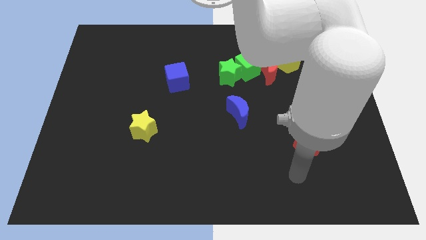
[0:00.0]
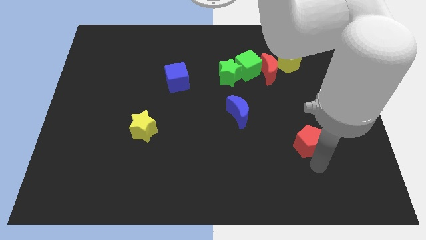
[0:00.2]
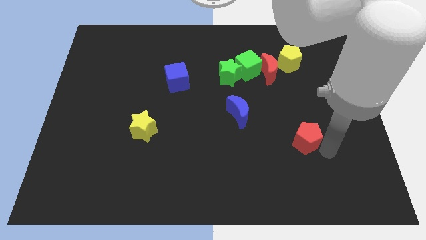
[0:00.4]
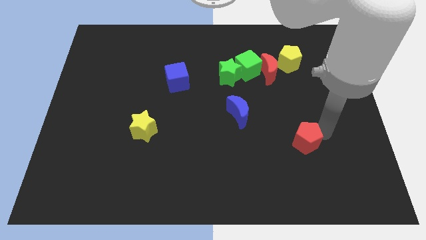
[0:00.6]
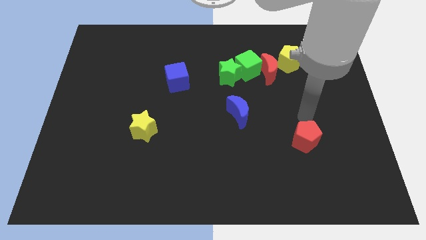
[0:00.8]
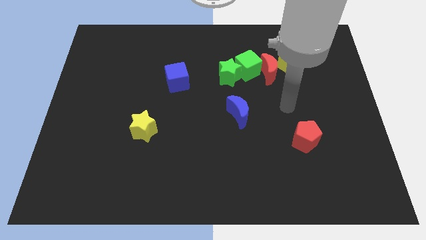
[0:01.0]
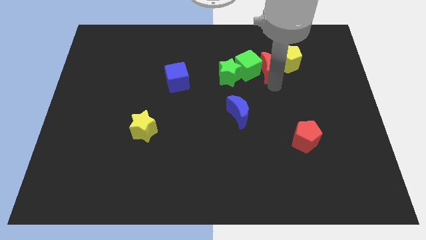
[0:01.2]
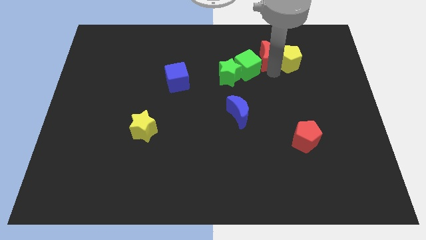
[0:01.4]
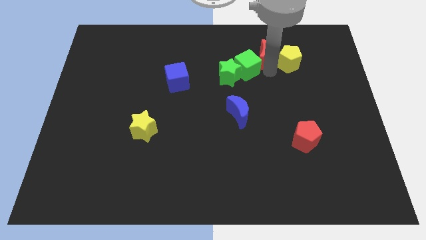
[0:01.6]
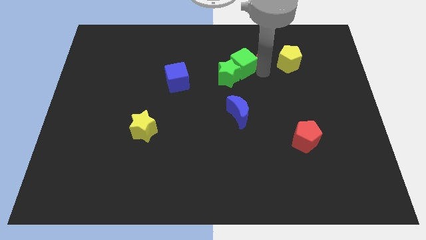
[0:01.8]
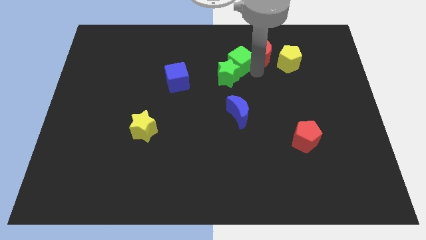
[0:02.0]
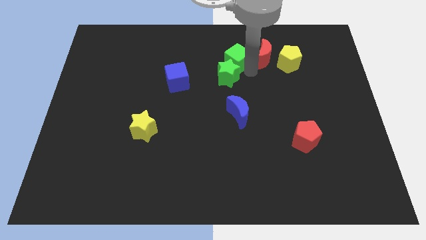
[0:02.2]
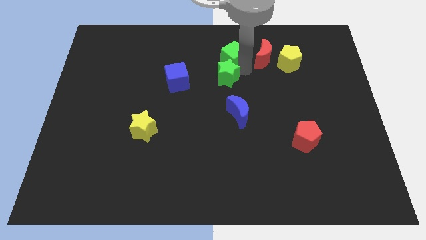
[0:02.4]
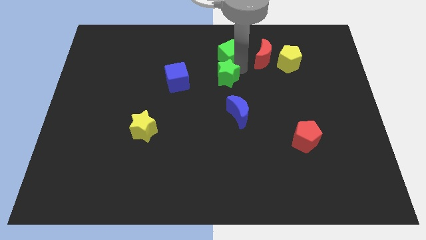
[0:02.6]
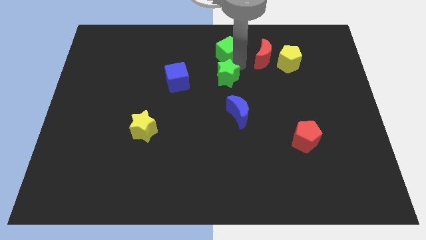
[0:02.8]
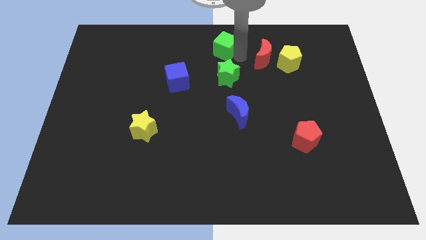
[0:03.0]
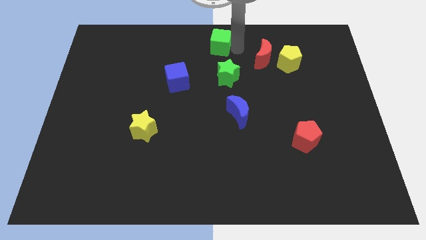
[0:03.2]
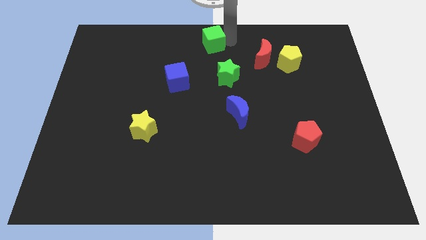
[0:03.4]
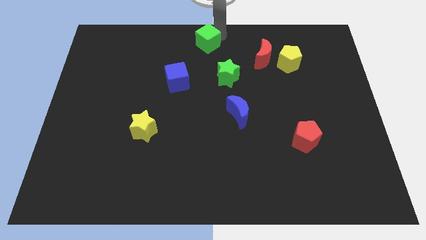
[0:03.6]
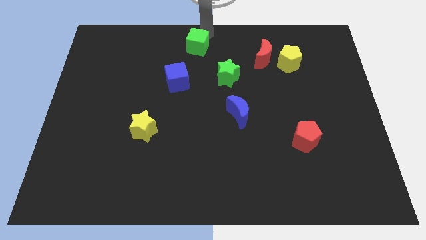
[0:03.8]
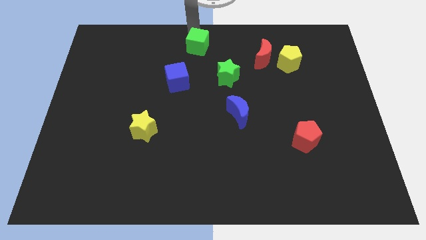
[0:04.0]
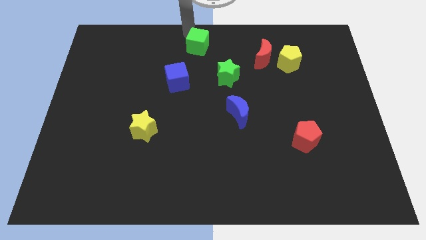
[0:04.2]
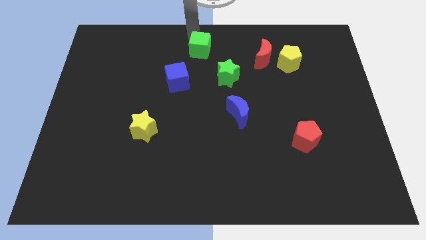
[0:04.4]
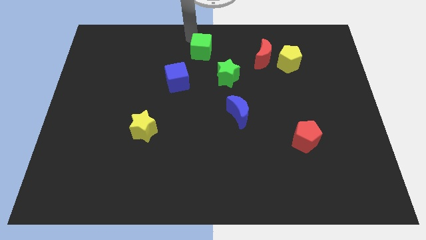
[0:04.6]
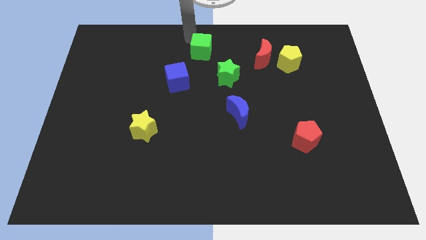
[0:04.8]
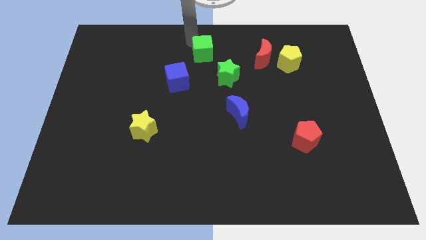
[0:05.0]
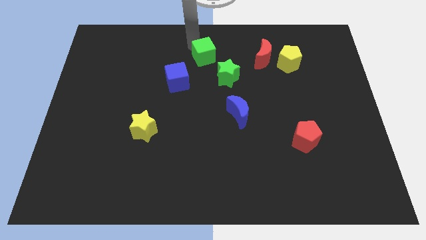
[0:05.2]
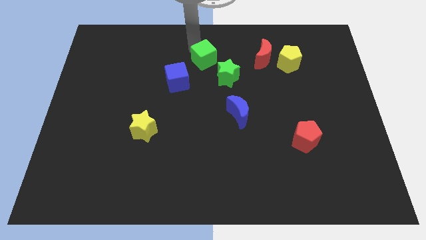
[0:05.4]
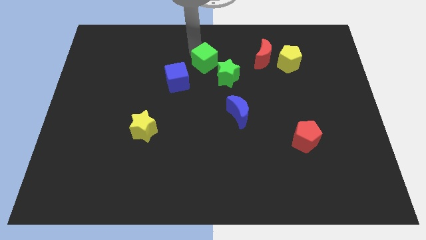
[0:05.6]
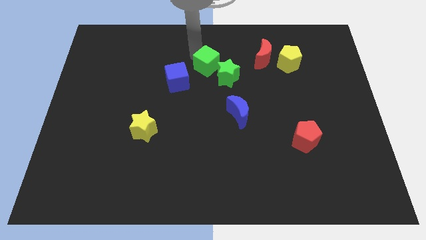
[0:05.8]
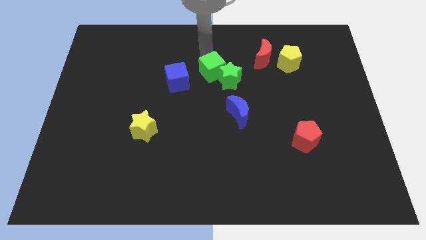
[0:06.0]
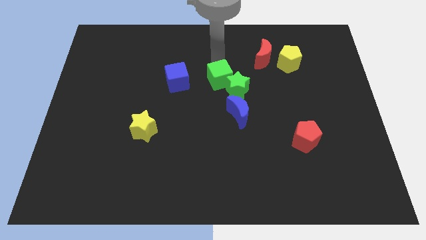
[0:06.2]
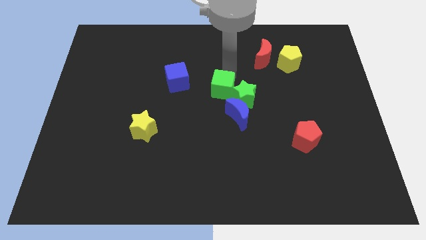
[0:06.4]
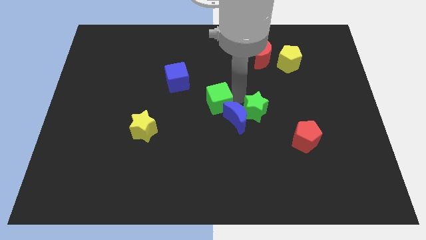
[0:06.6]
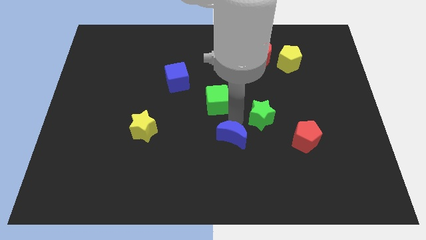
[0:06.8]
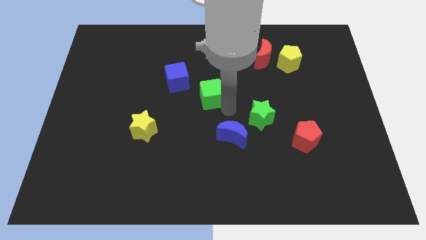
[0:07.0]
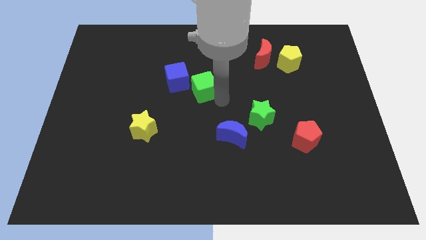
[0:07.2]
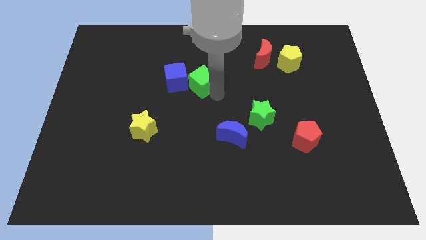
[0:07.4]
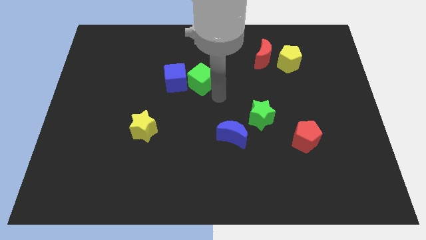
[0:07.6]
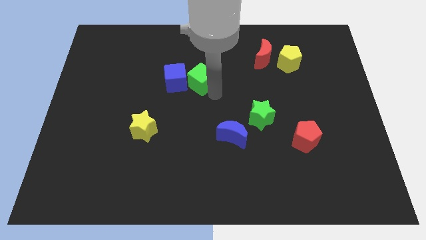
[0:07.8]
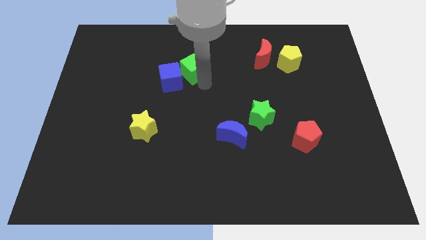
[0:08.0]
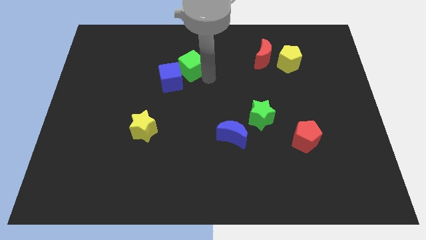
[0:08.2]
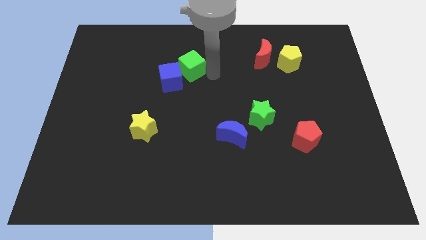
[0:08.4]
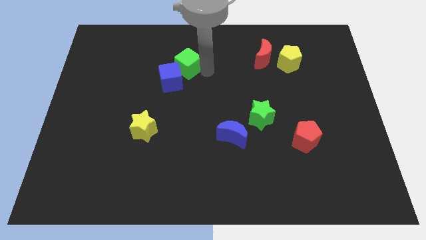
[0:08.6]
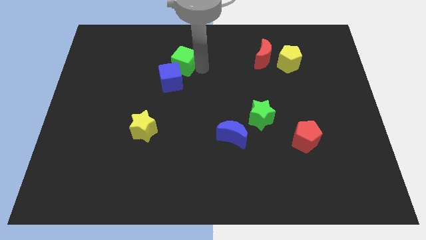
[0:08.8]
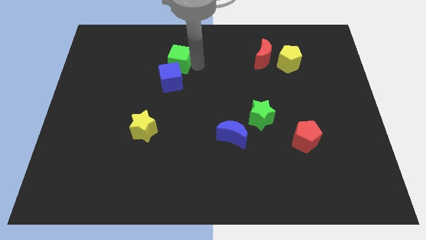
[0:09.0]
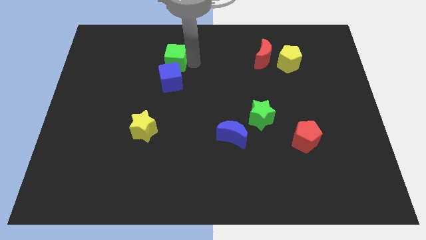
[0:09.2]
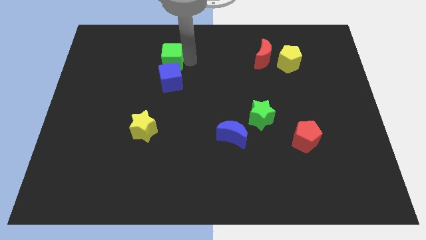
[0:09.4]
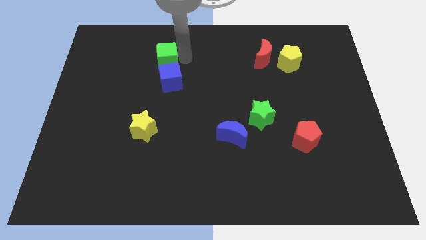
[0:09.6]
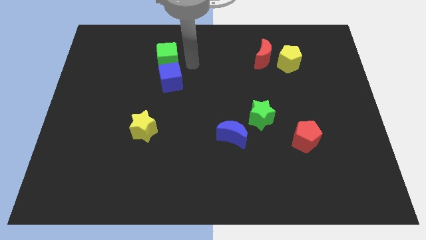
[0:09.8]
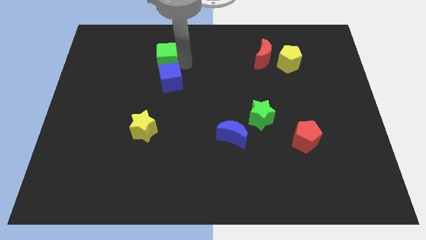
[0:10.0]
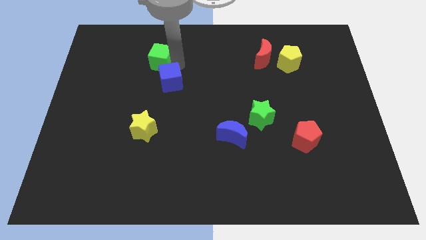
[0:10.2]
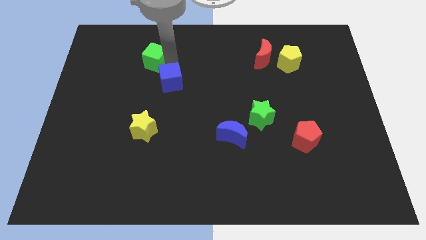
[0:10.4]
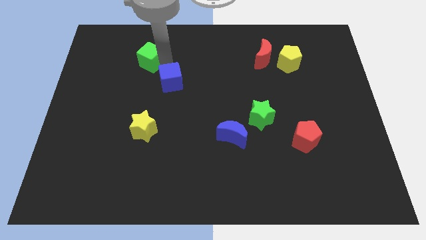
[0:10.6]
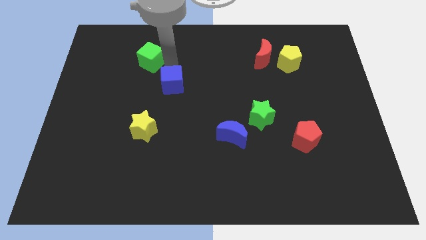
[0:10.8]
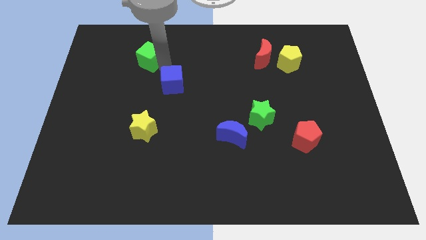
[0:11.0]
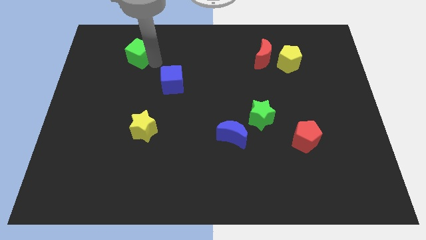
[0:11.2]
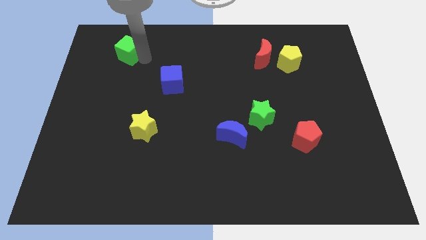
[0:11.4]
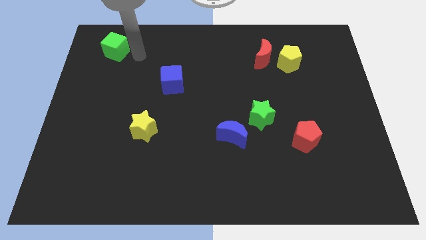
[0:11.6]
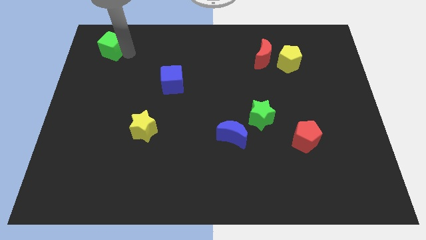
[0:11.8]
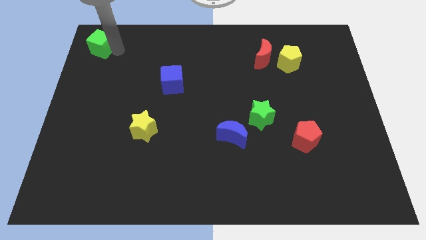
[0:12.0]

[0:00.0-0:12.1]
push the green cube to the upper left corner

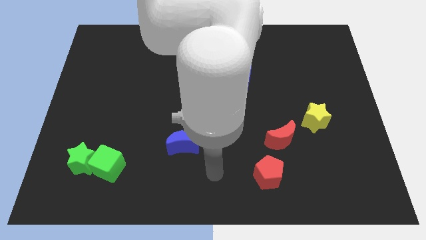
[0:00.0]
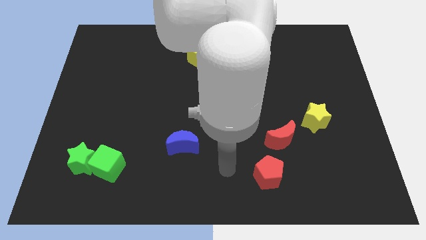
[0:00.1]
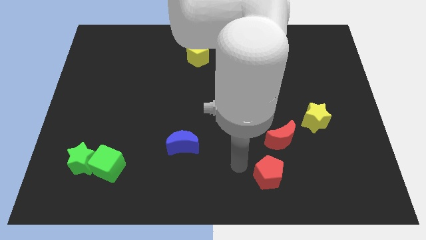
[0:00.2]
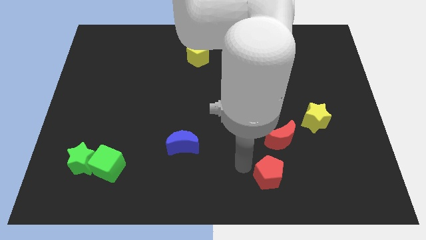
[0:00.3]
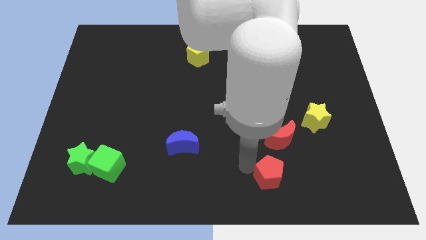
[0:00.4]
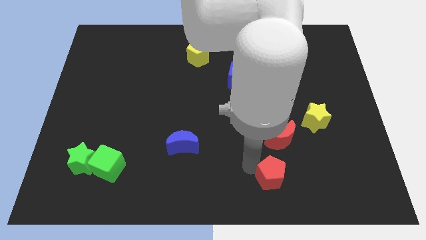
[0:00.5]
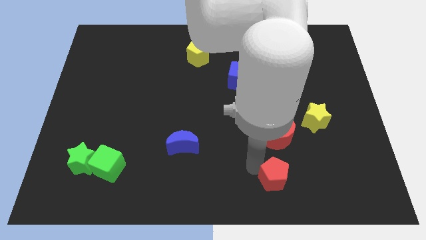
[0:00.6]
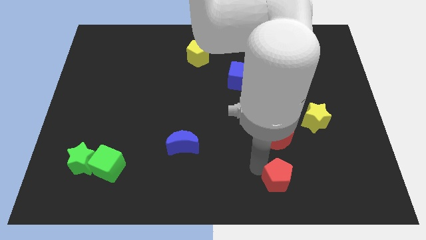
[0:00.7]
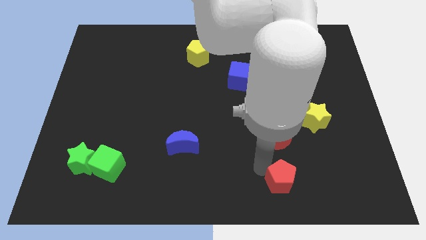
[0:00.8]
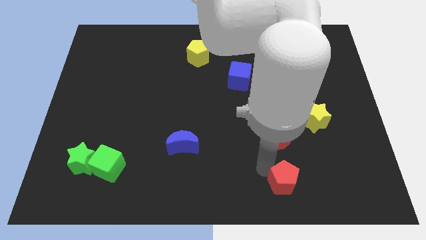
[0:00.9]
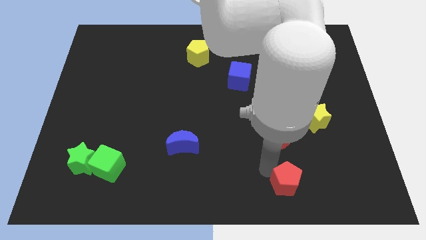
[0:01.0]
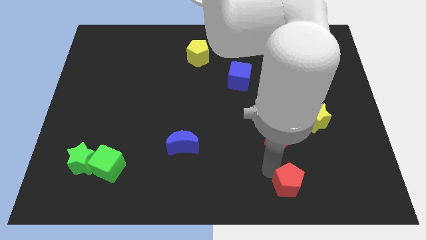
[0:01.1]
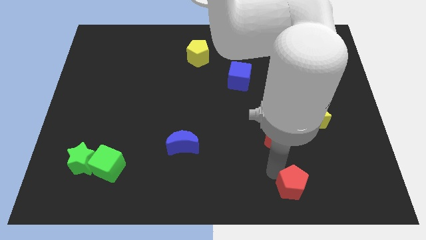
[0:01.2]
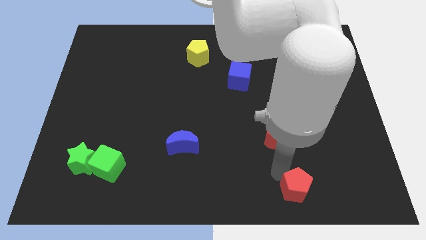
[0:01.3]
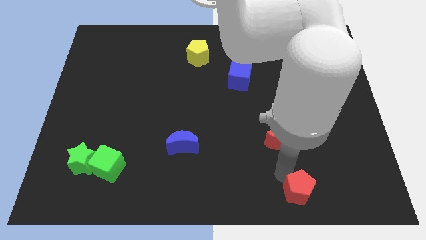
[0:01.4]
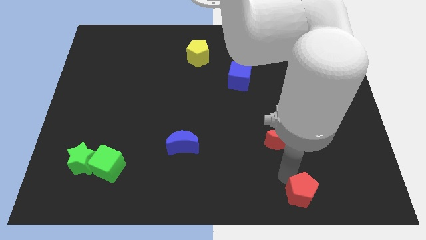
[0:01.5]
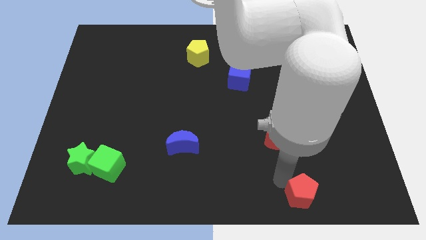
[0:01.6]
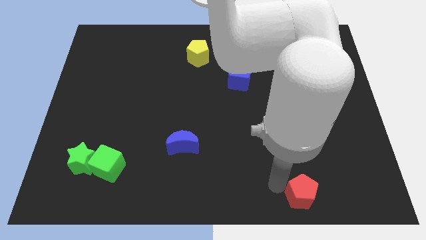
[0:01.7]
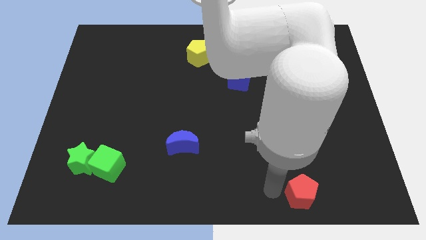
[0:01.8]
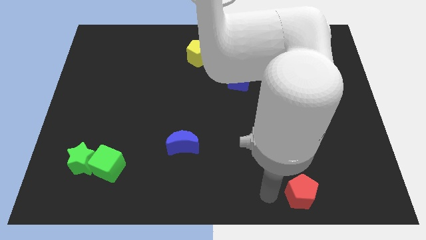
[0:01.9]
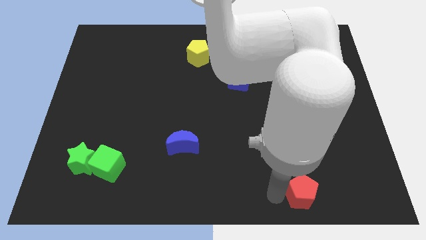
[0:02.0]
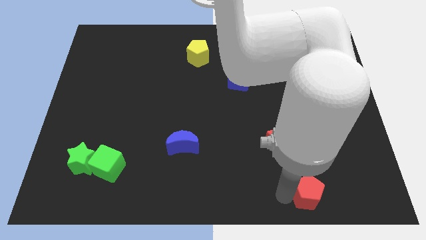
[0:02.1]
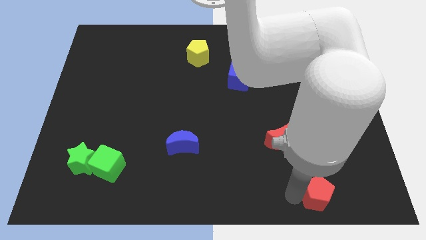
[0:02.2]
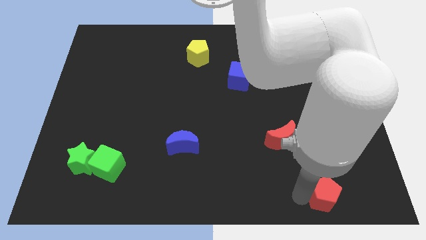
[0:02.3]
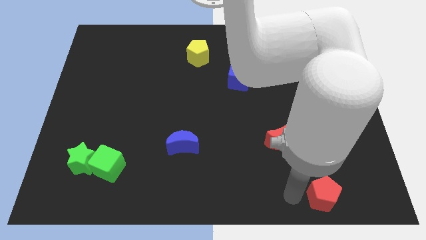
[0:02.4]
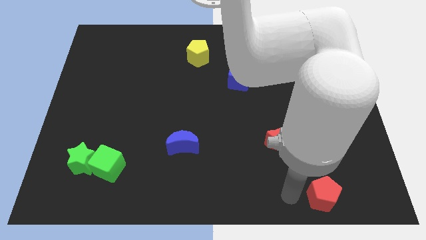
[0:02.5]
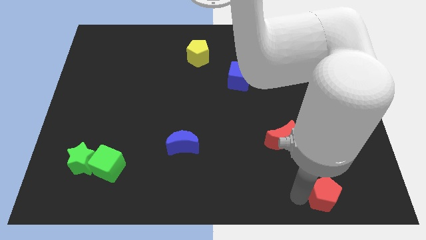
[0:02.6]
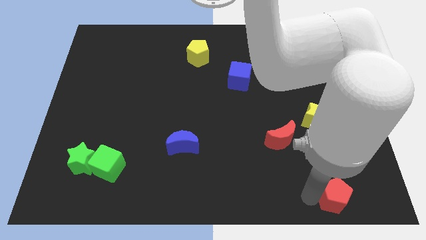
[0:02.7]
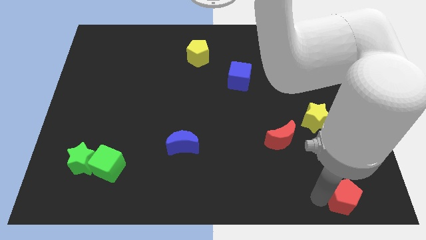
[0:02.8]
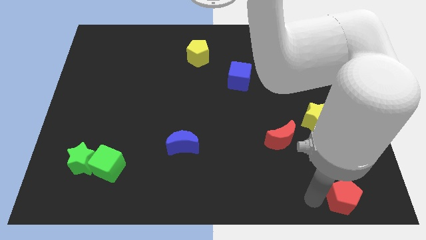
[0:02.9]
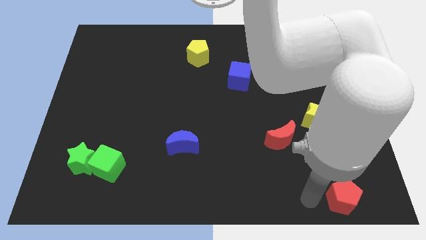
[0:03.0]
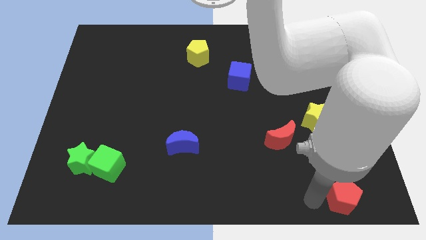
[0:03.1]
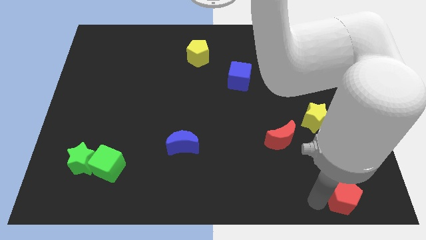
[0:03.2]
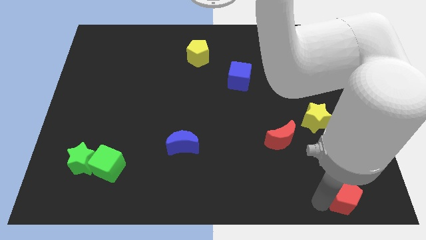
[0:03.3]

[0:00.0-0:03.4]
move the red pentagon to the lower right corner
